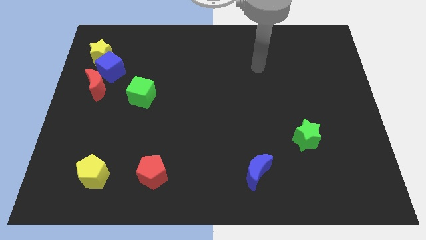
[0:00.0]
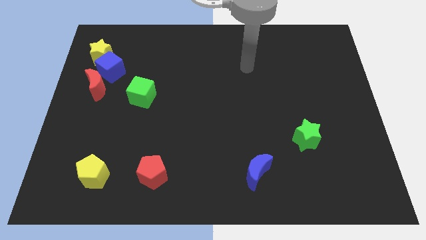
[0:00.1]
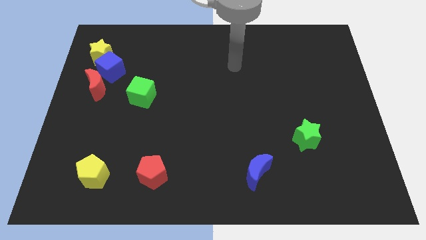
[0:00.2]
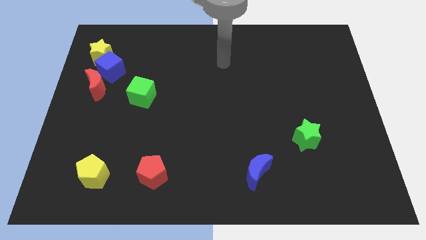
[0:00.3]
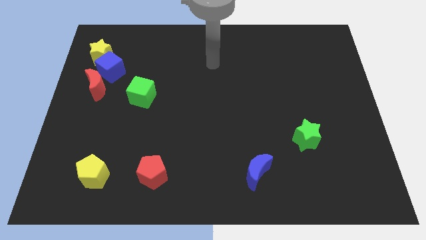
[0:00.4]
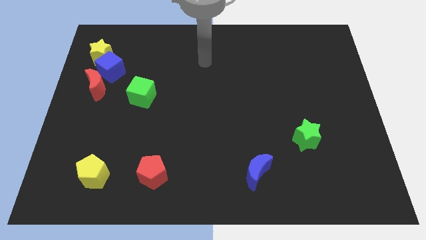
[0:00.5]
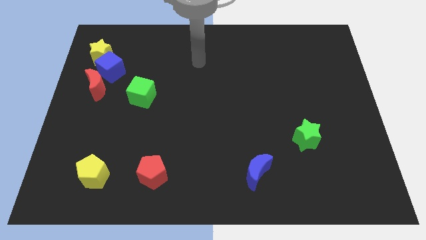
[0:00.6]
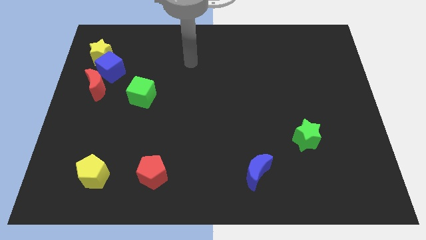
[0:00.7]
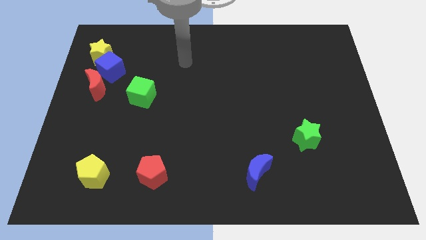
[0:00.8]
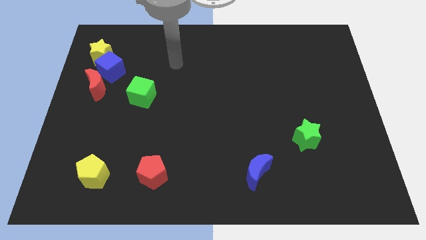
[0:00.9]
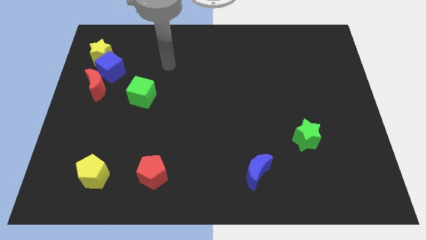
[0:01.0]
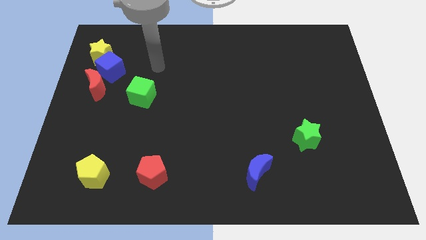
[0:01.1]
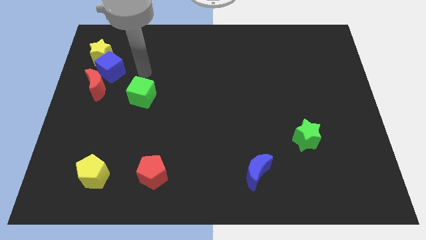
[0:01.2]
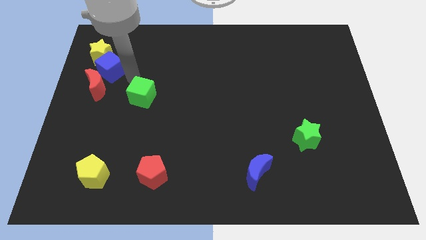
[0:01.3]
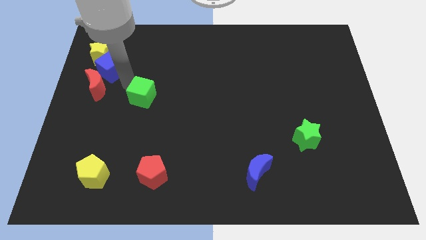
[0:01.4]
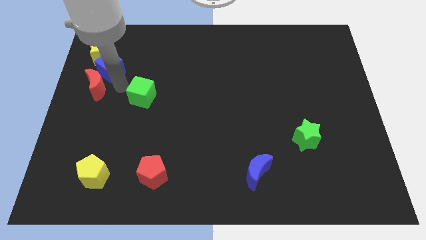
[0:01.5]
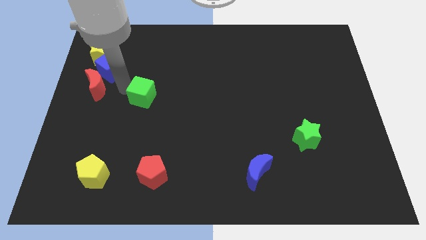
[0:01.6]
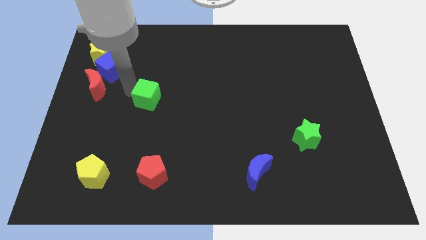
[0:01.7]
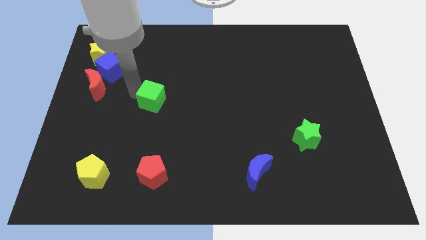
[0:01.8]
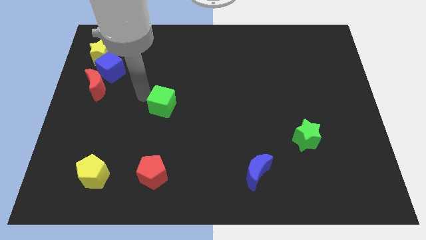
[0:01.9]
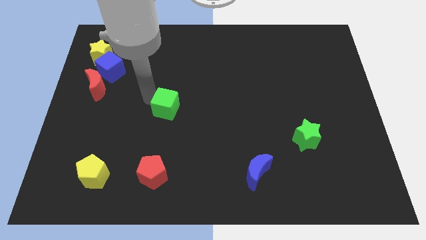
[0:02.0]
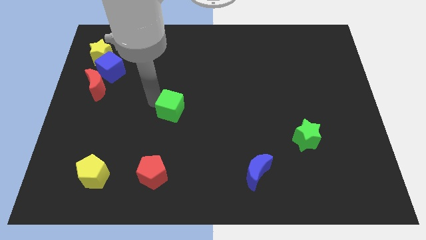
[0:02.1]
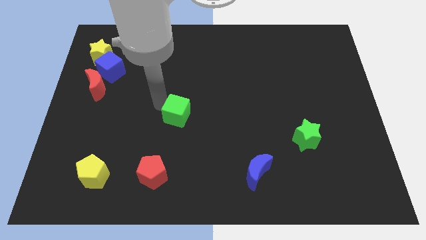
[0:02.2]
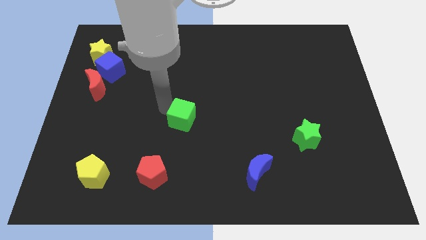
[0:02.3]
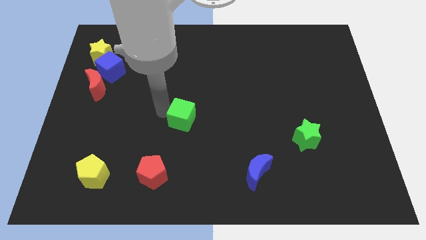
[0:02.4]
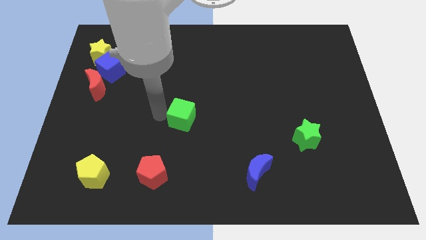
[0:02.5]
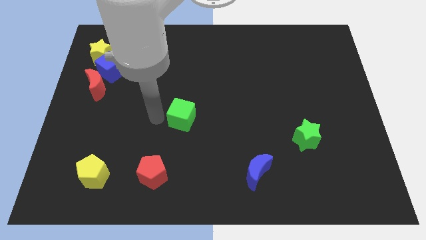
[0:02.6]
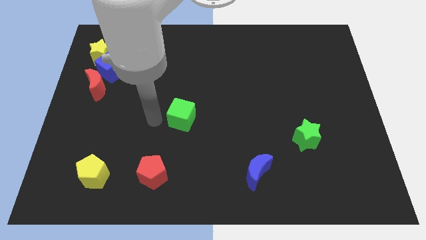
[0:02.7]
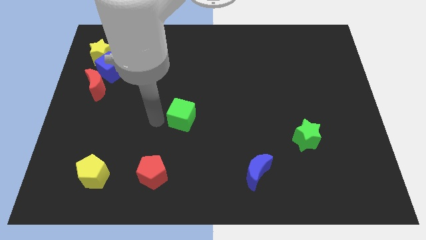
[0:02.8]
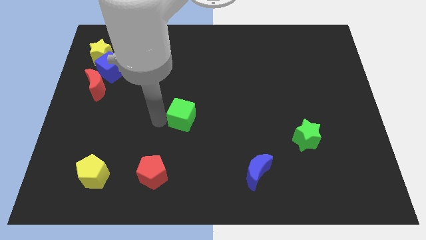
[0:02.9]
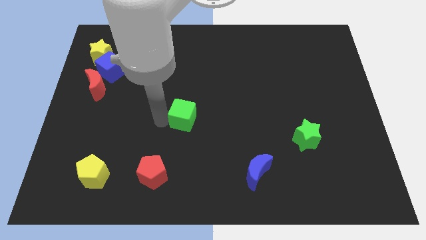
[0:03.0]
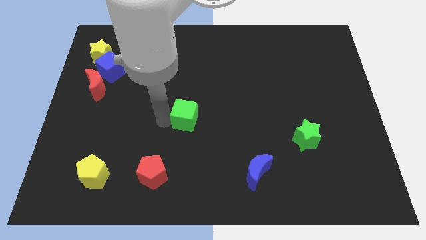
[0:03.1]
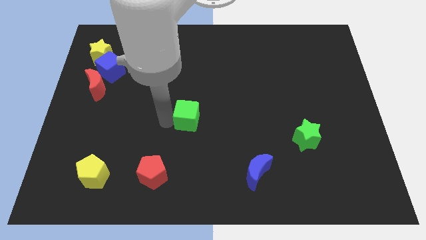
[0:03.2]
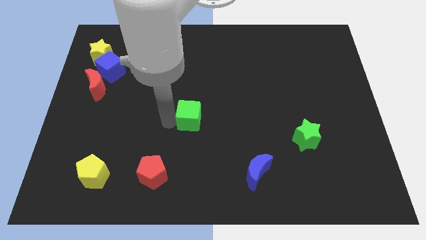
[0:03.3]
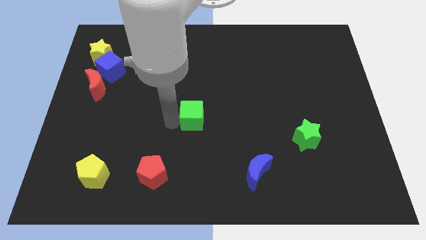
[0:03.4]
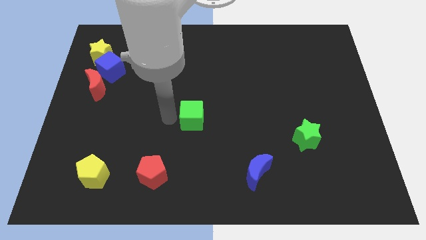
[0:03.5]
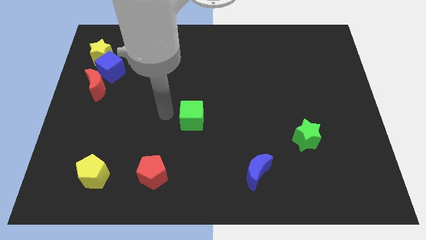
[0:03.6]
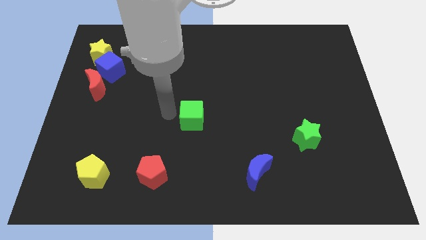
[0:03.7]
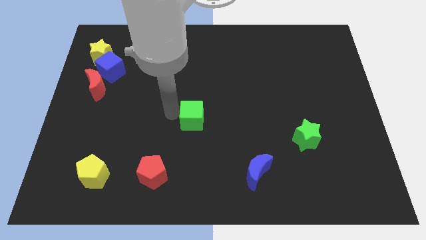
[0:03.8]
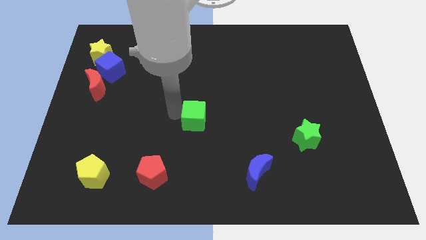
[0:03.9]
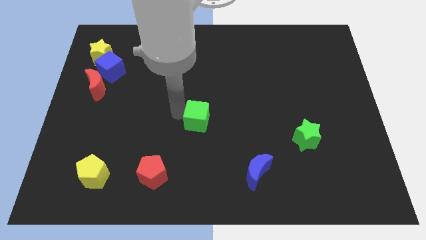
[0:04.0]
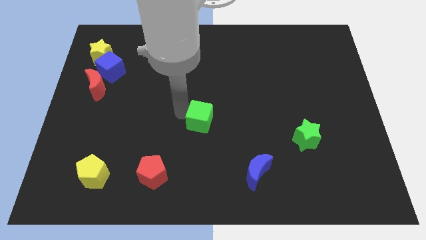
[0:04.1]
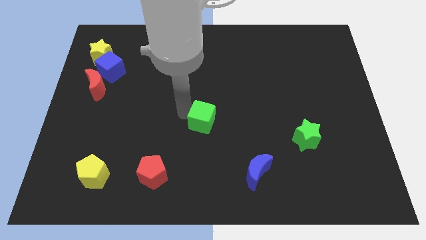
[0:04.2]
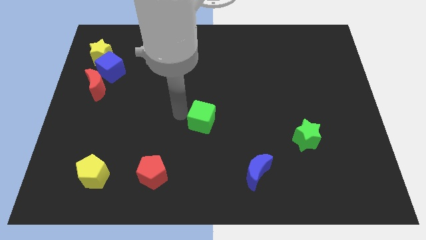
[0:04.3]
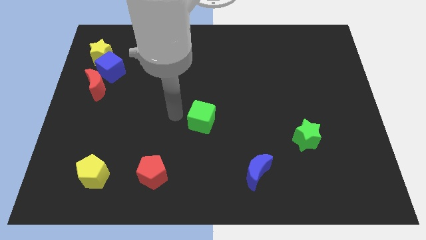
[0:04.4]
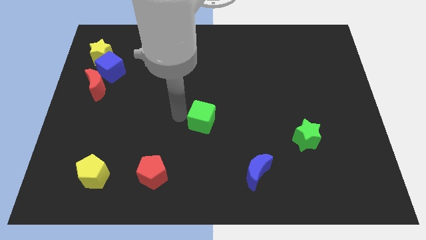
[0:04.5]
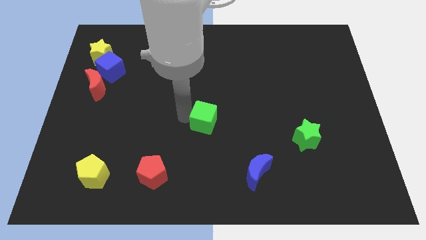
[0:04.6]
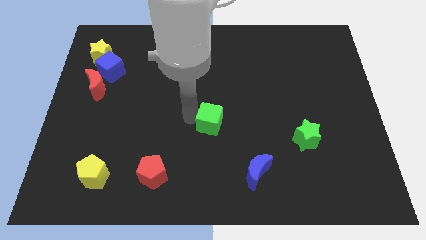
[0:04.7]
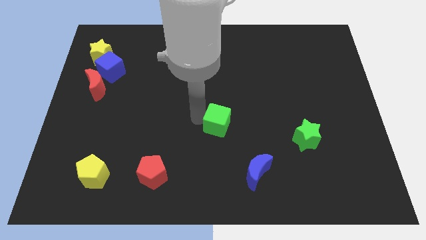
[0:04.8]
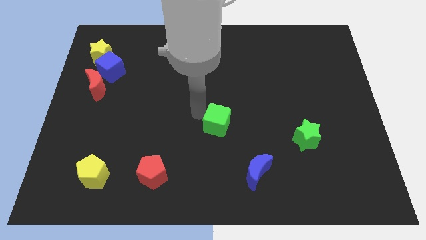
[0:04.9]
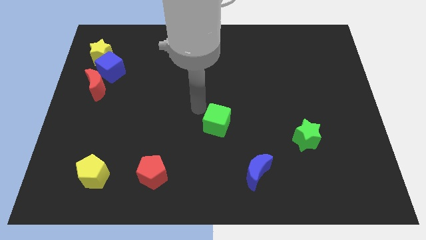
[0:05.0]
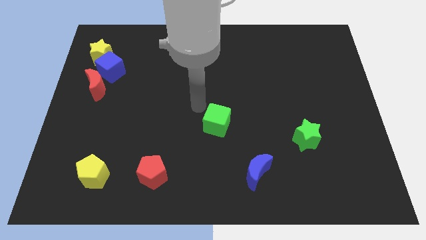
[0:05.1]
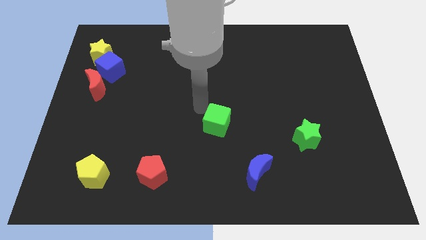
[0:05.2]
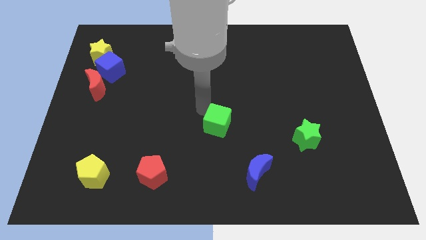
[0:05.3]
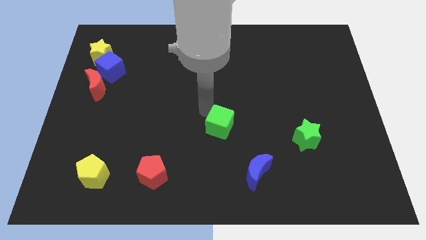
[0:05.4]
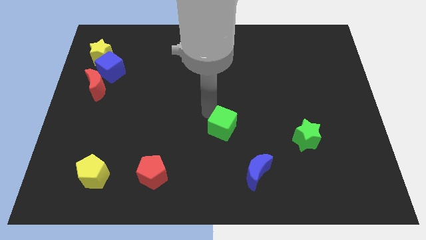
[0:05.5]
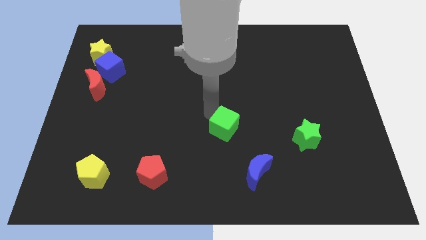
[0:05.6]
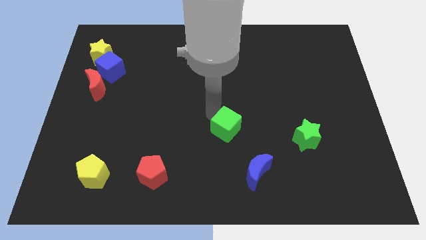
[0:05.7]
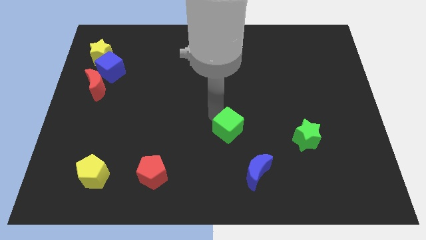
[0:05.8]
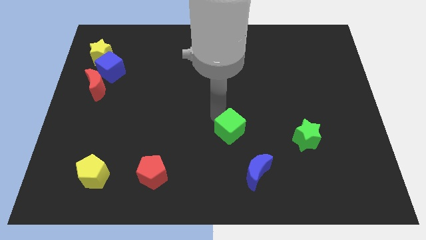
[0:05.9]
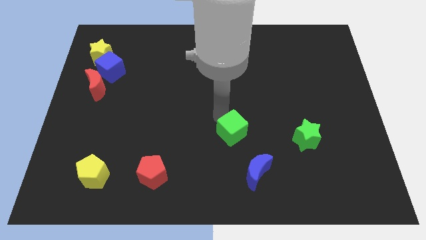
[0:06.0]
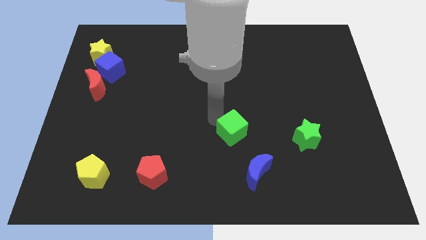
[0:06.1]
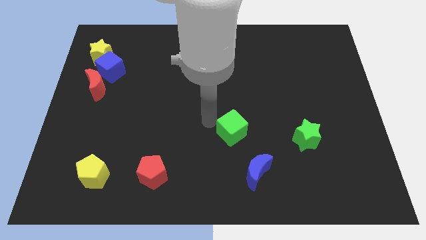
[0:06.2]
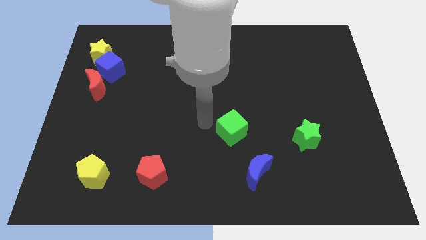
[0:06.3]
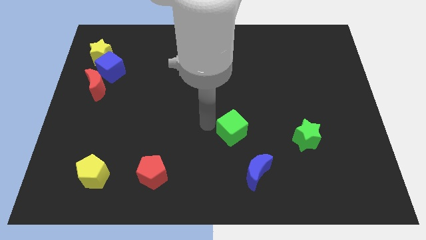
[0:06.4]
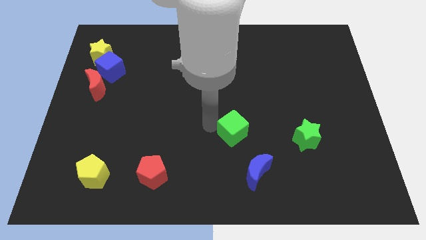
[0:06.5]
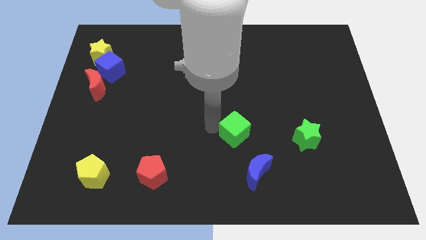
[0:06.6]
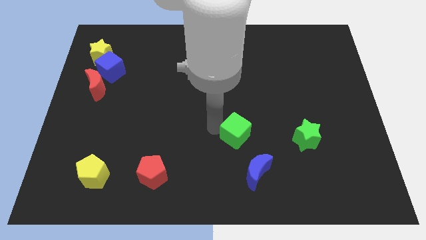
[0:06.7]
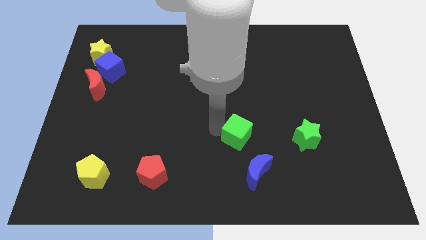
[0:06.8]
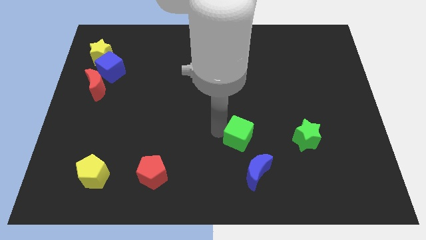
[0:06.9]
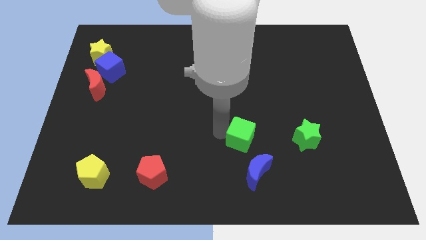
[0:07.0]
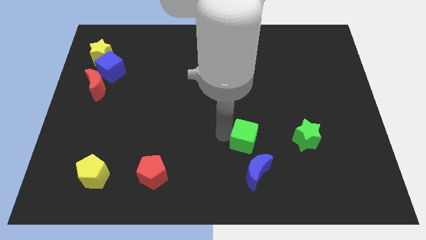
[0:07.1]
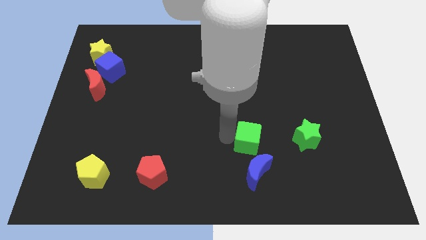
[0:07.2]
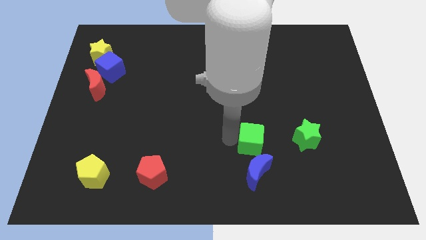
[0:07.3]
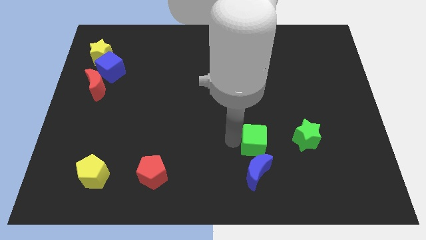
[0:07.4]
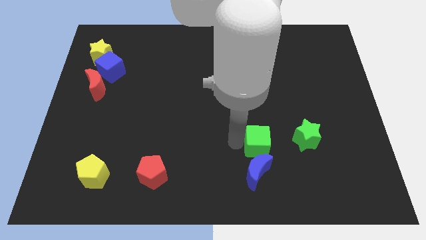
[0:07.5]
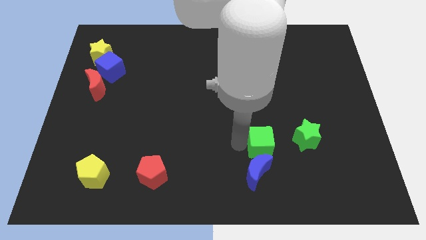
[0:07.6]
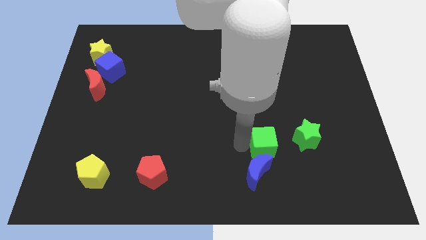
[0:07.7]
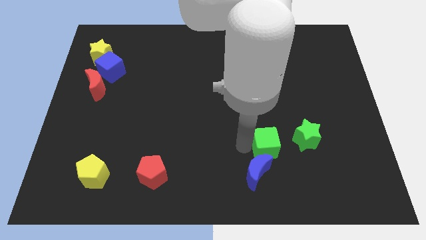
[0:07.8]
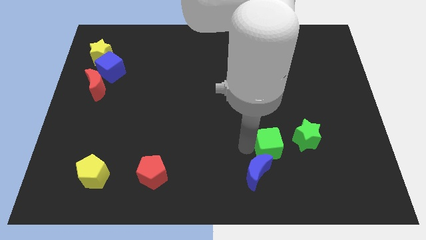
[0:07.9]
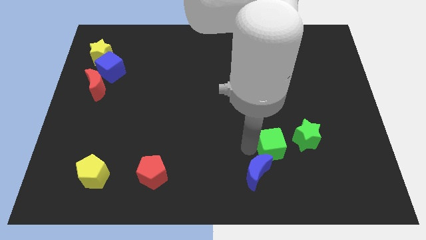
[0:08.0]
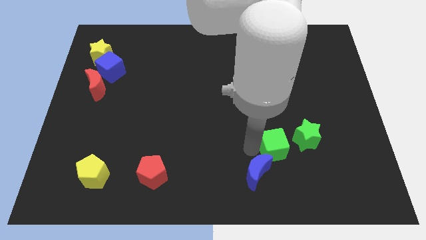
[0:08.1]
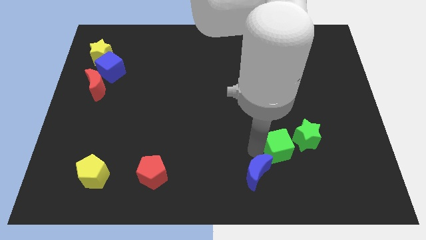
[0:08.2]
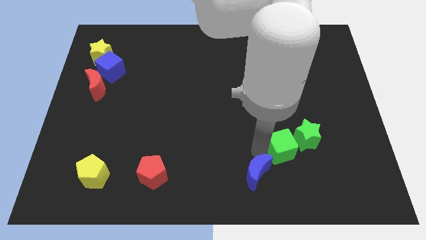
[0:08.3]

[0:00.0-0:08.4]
move the green cube to the green star
